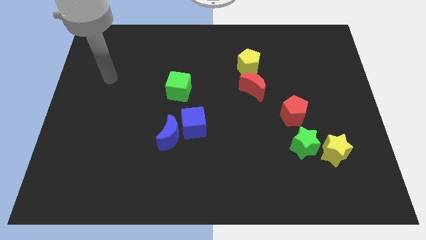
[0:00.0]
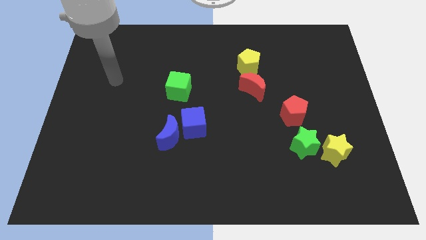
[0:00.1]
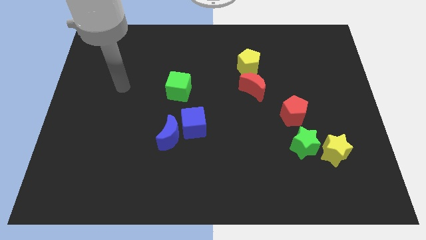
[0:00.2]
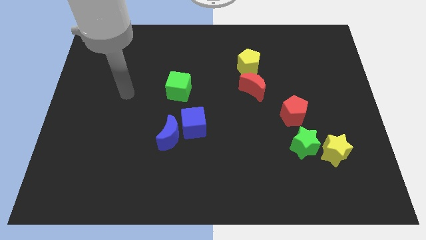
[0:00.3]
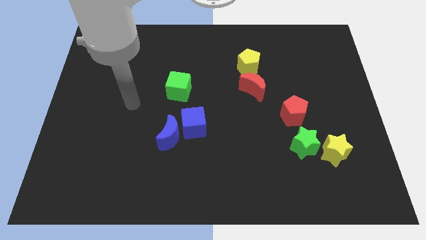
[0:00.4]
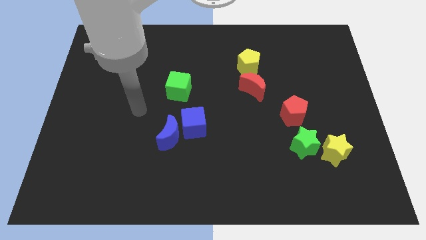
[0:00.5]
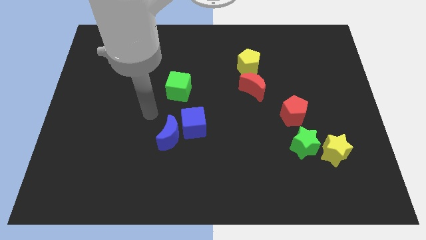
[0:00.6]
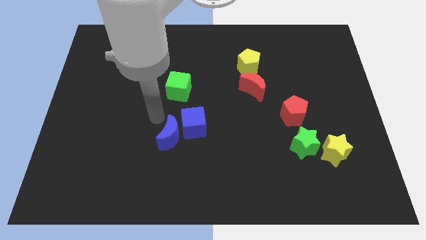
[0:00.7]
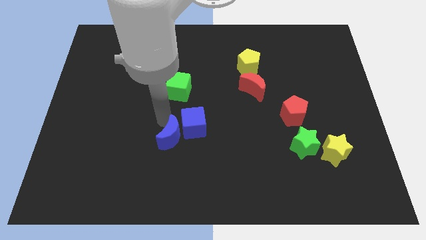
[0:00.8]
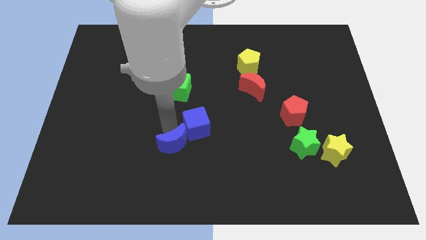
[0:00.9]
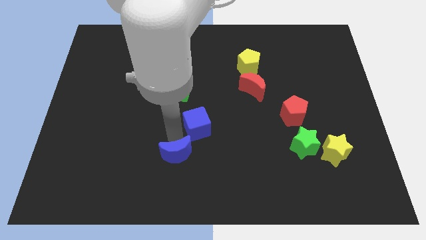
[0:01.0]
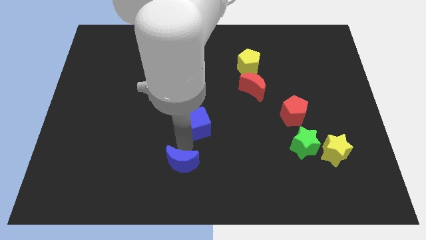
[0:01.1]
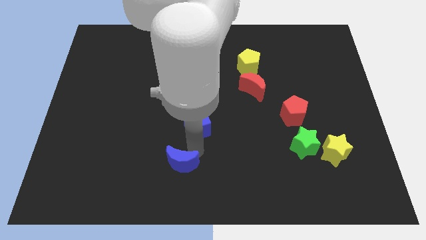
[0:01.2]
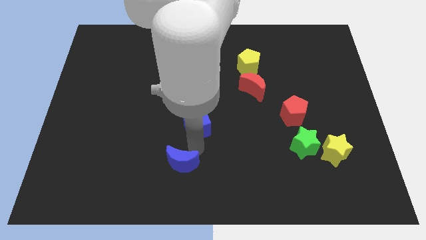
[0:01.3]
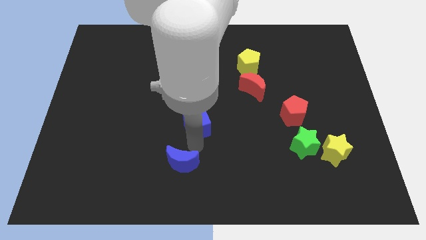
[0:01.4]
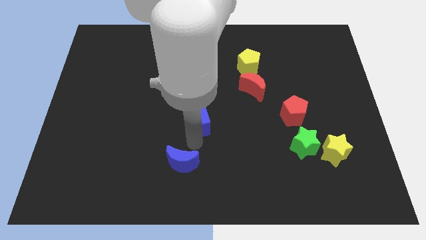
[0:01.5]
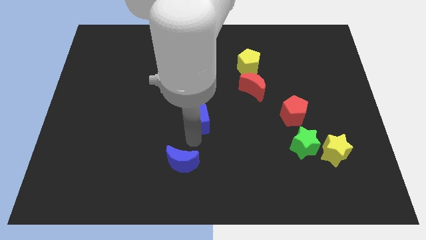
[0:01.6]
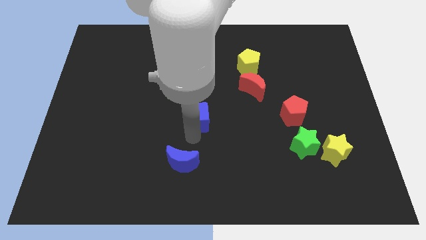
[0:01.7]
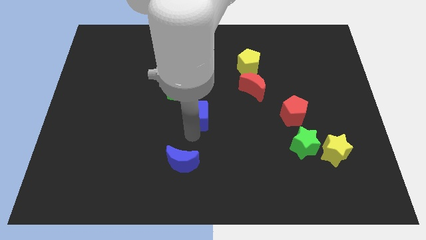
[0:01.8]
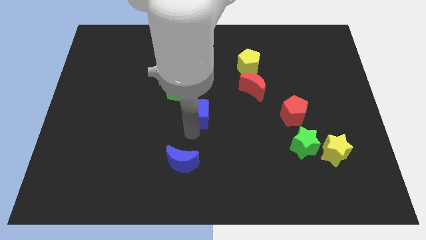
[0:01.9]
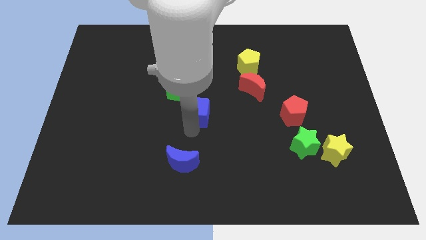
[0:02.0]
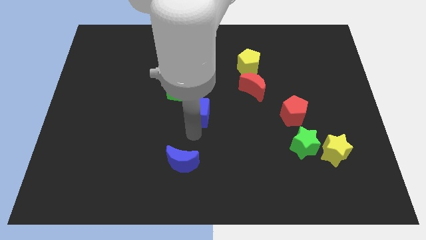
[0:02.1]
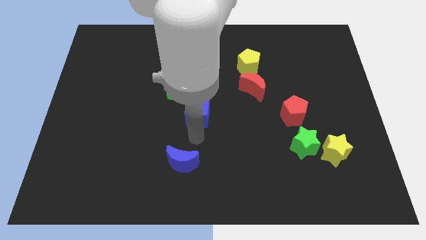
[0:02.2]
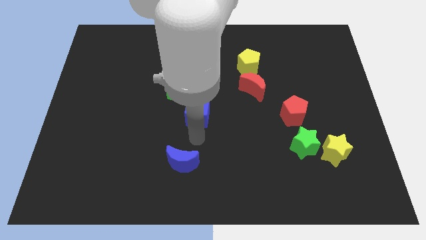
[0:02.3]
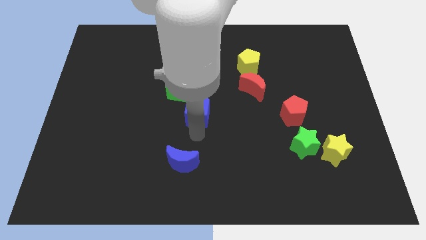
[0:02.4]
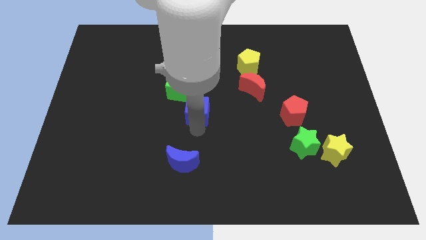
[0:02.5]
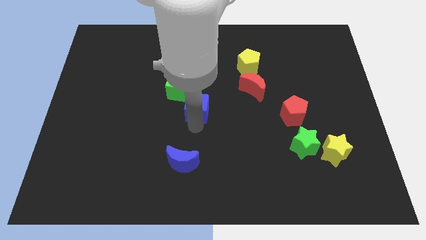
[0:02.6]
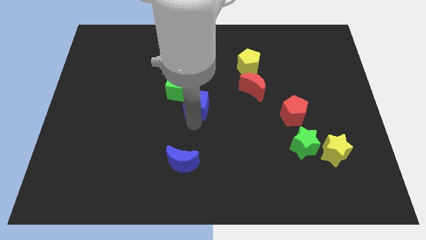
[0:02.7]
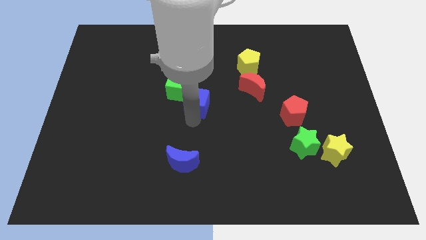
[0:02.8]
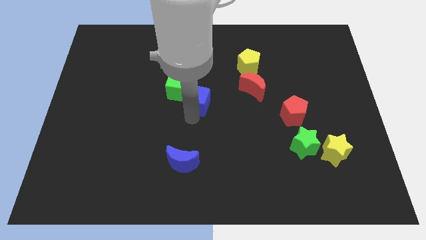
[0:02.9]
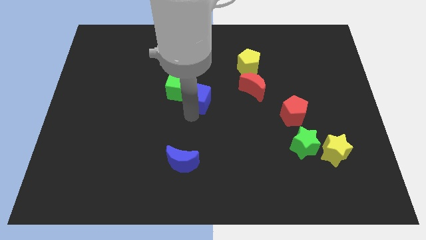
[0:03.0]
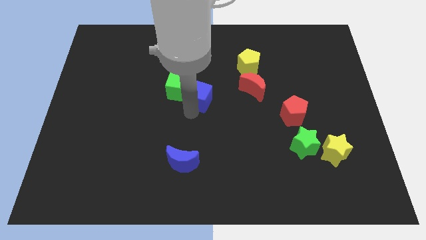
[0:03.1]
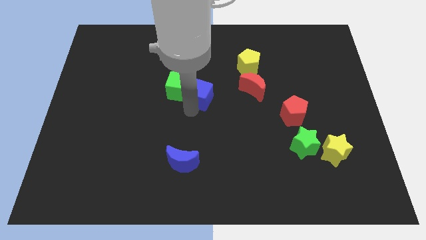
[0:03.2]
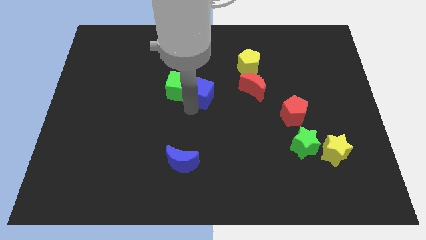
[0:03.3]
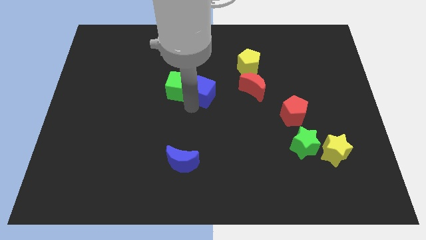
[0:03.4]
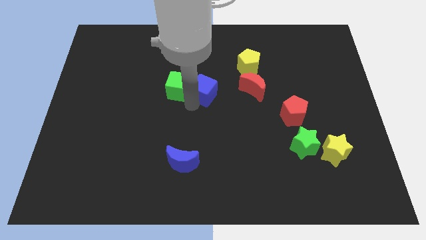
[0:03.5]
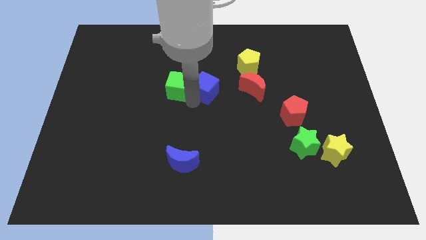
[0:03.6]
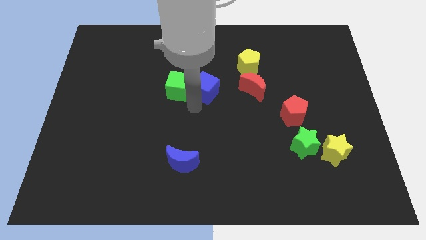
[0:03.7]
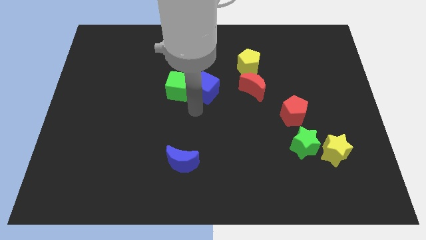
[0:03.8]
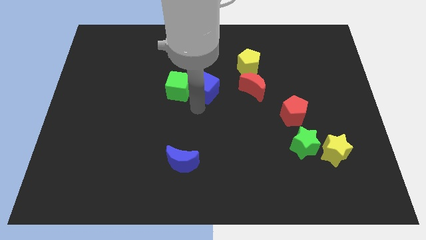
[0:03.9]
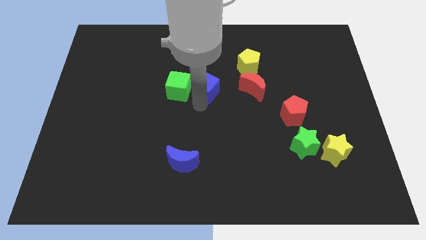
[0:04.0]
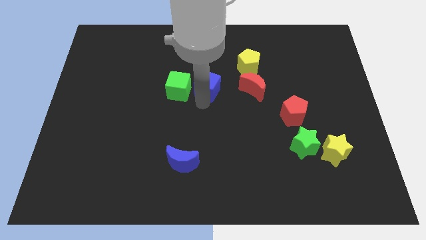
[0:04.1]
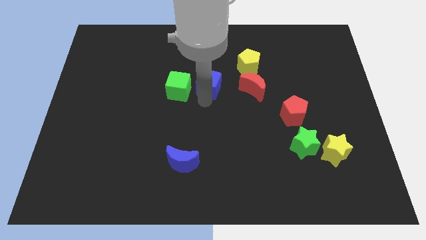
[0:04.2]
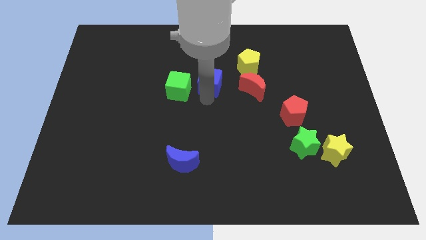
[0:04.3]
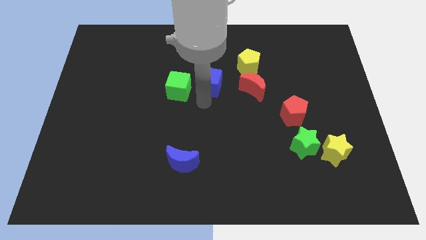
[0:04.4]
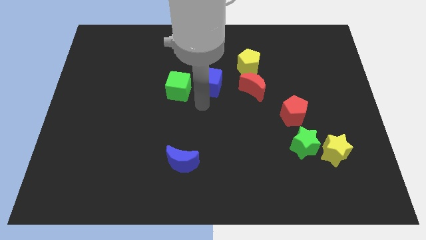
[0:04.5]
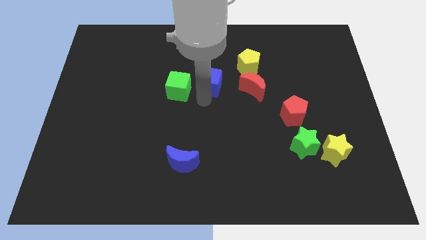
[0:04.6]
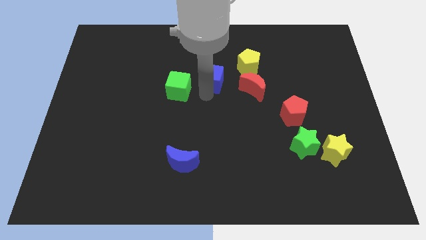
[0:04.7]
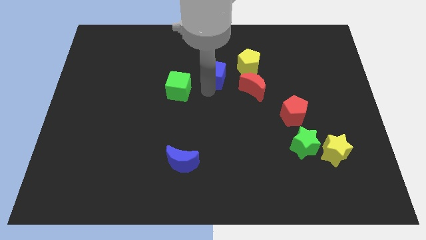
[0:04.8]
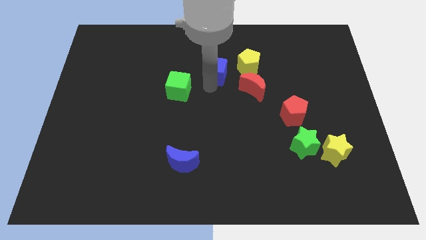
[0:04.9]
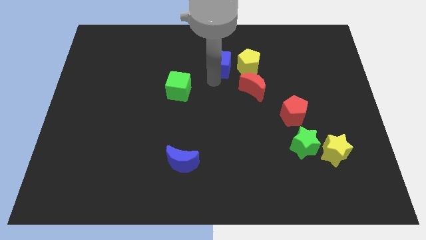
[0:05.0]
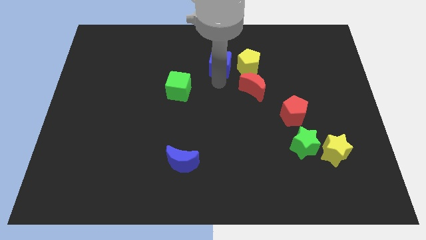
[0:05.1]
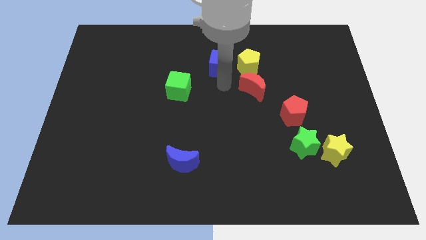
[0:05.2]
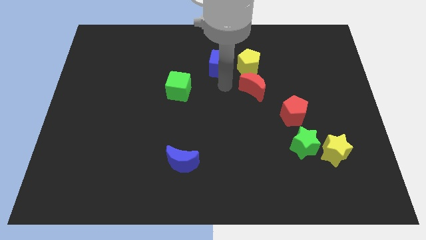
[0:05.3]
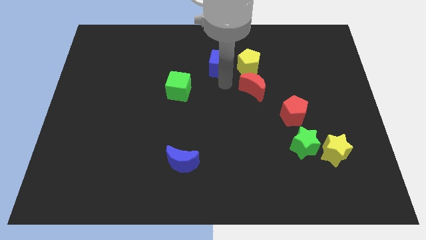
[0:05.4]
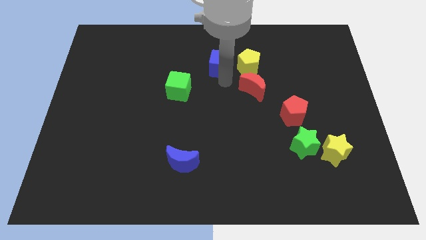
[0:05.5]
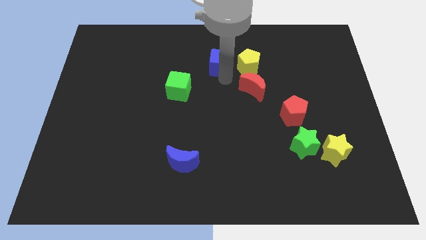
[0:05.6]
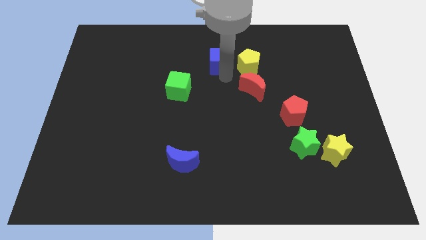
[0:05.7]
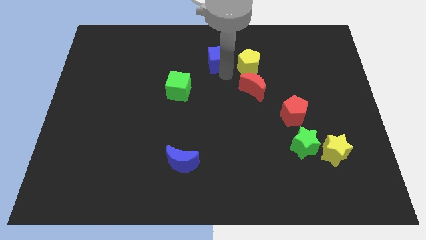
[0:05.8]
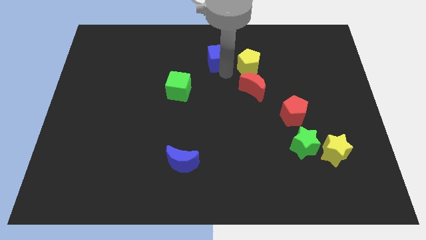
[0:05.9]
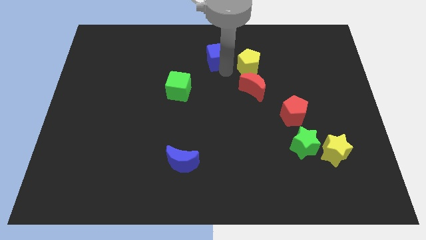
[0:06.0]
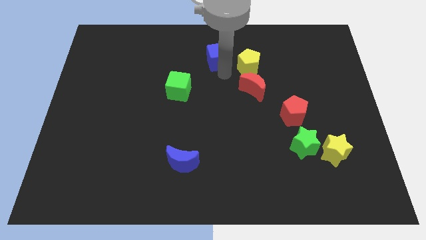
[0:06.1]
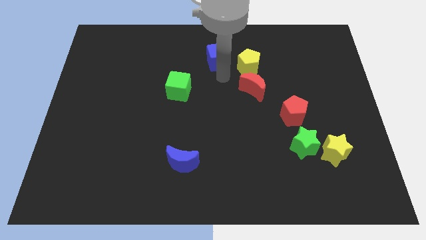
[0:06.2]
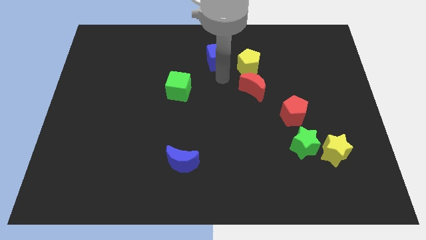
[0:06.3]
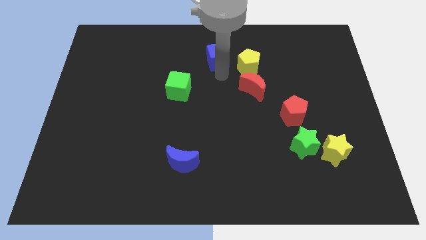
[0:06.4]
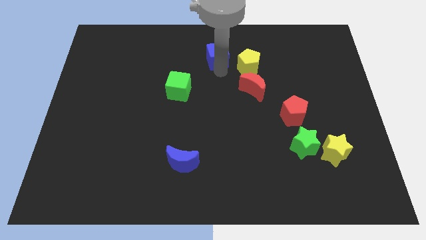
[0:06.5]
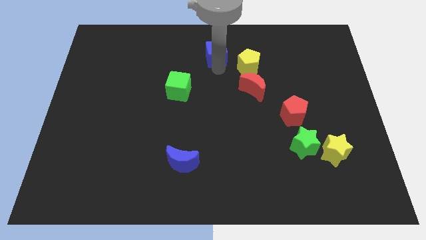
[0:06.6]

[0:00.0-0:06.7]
push the blue cube to the towards your base
